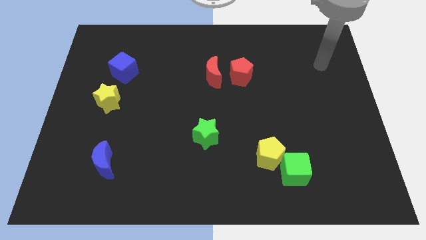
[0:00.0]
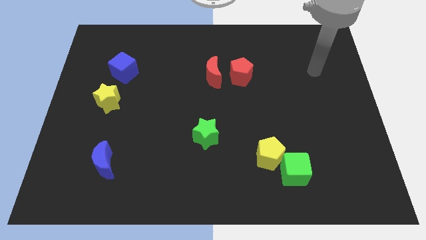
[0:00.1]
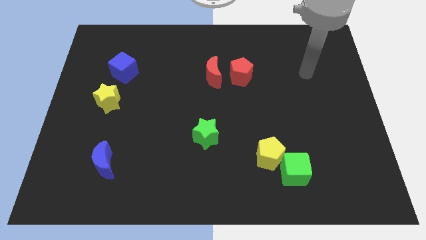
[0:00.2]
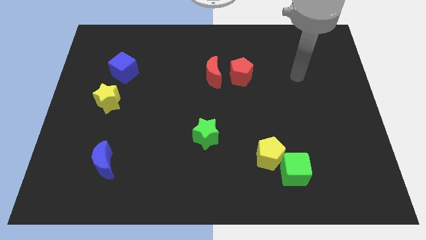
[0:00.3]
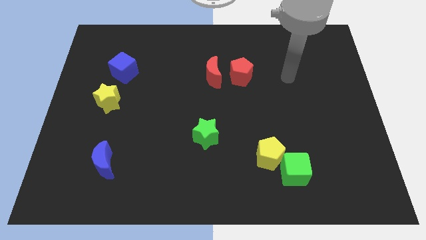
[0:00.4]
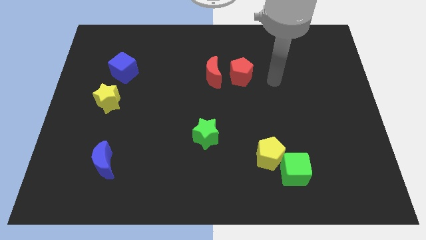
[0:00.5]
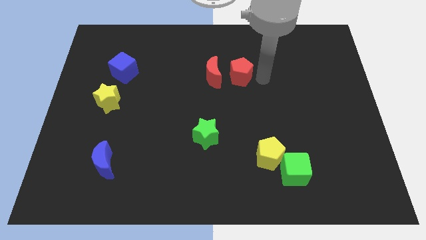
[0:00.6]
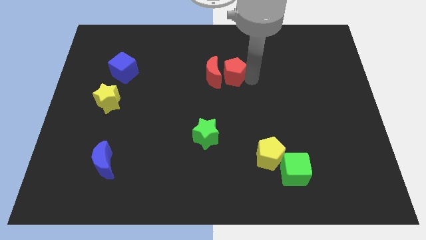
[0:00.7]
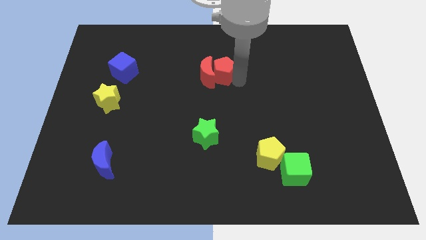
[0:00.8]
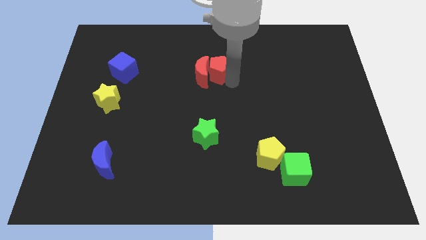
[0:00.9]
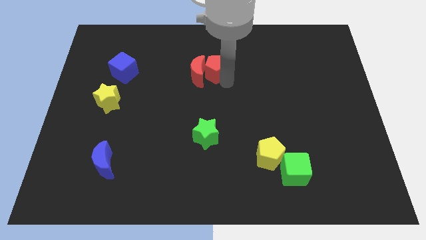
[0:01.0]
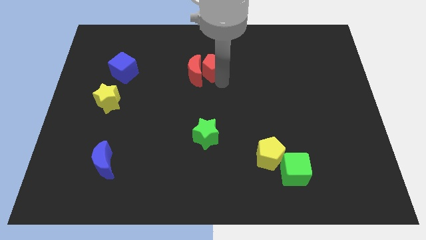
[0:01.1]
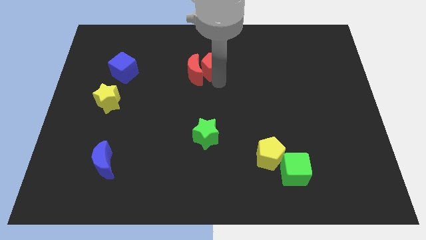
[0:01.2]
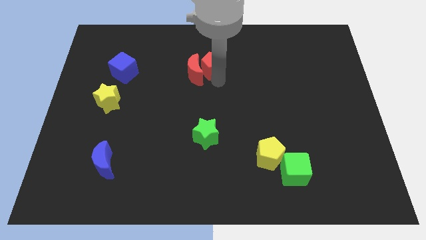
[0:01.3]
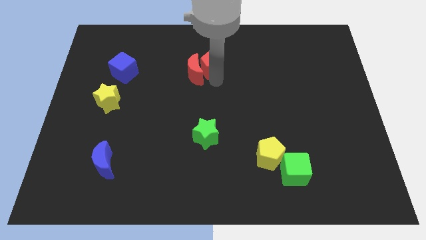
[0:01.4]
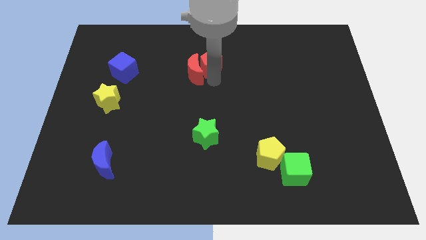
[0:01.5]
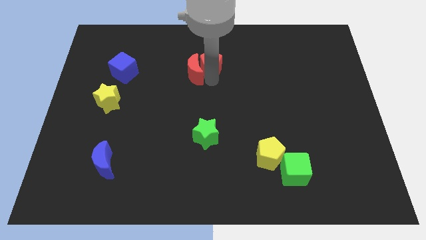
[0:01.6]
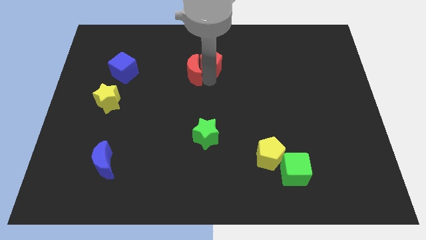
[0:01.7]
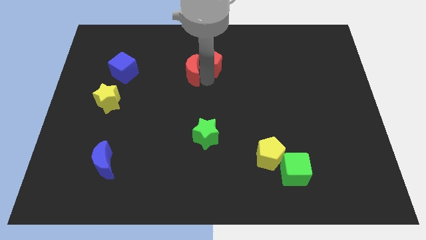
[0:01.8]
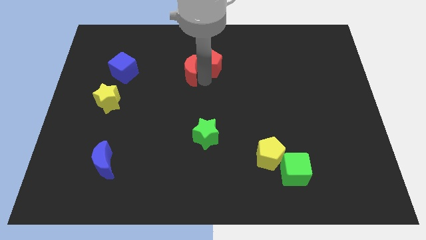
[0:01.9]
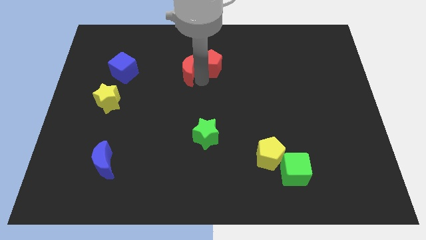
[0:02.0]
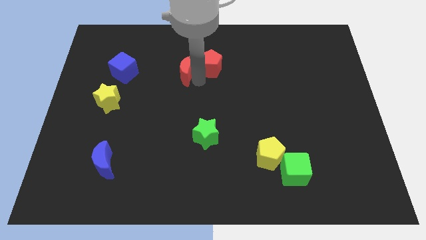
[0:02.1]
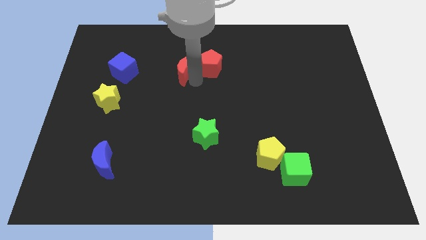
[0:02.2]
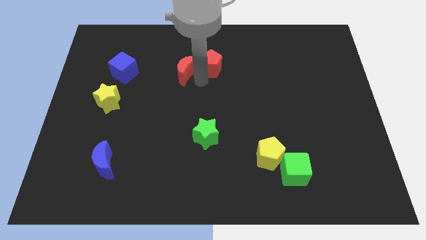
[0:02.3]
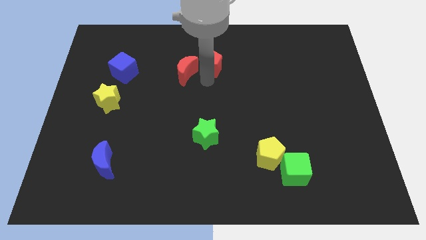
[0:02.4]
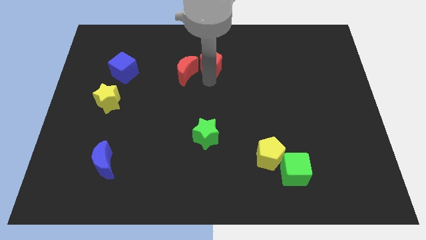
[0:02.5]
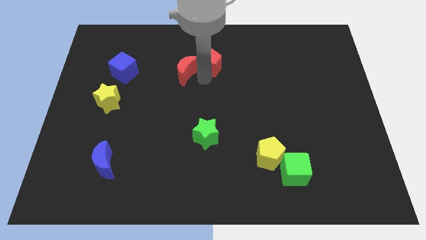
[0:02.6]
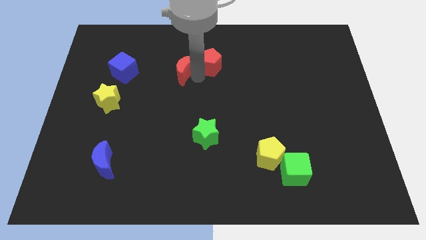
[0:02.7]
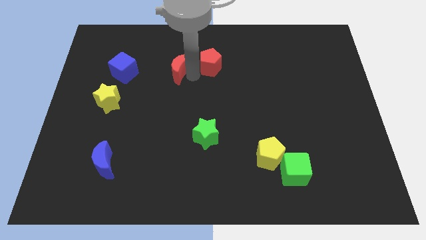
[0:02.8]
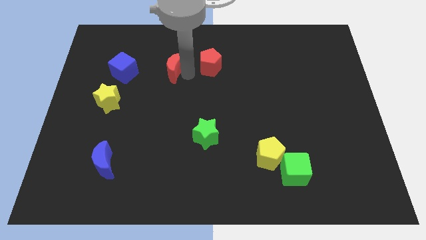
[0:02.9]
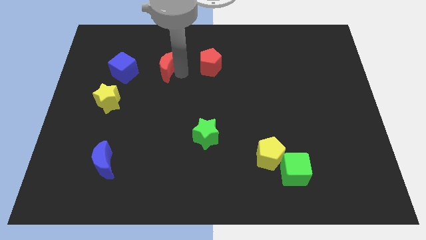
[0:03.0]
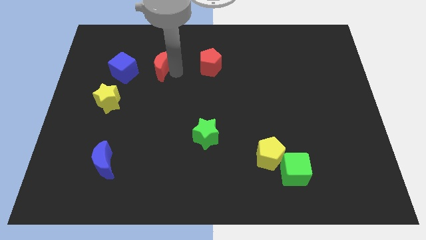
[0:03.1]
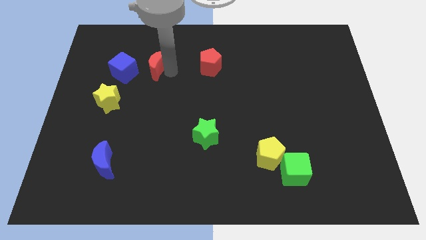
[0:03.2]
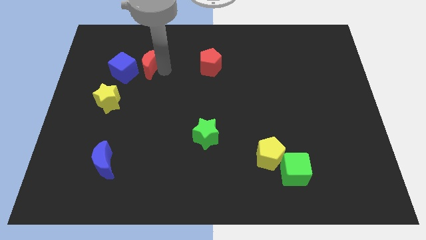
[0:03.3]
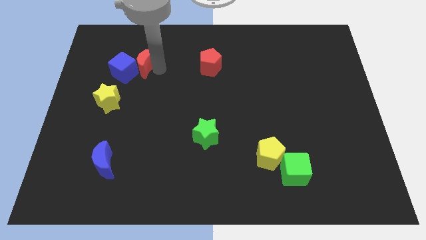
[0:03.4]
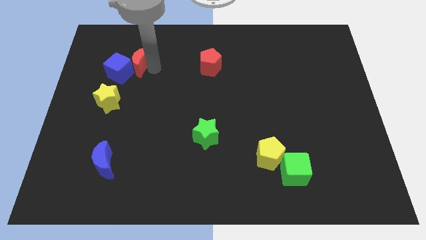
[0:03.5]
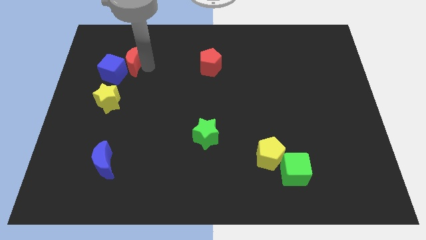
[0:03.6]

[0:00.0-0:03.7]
push the red moon to the top side of the yellow star

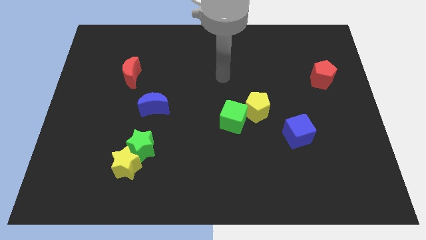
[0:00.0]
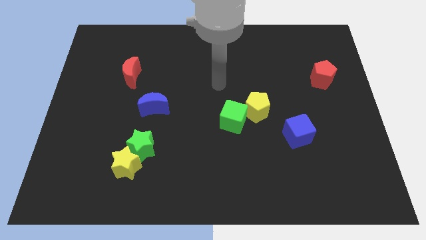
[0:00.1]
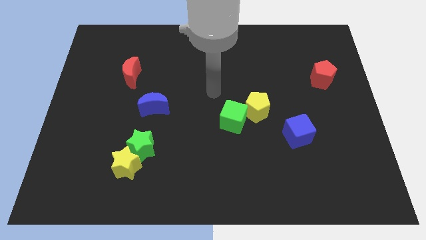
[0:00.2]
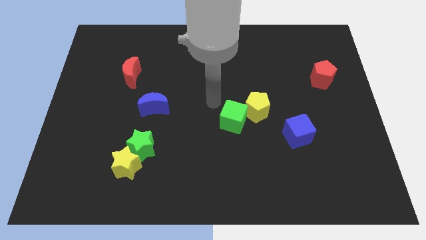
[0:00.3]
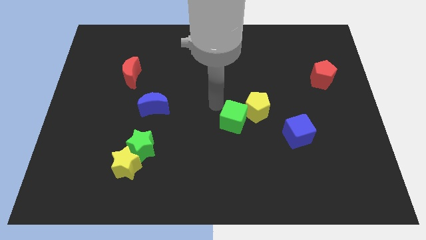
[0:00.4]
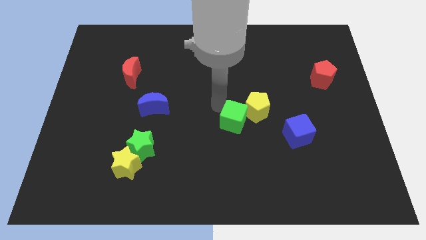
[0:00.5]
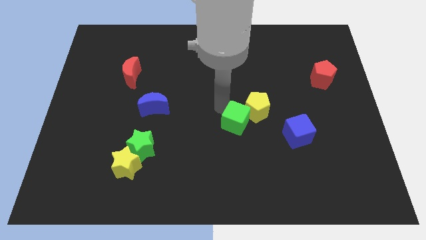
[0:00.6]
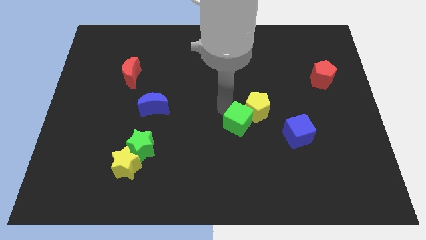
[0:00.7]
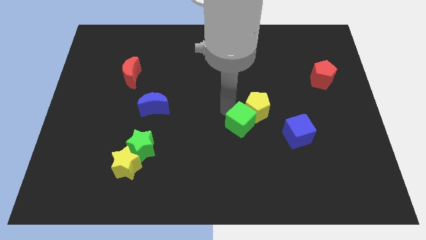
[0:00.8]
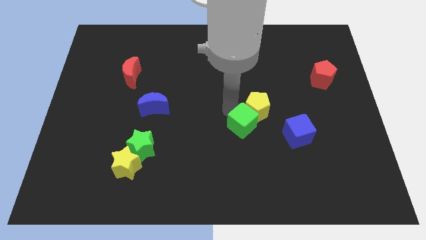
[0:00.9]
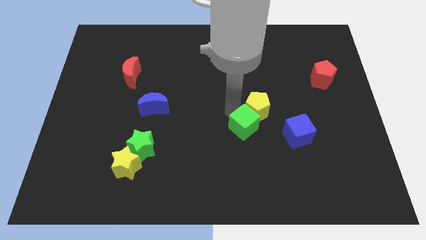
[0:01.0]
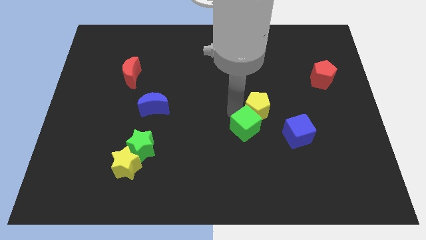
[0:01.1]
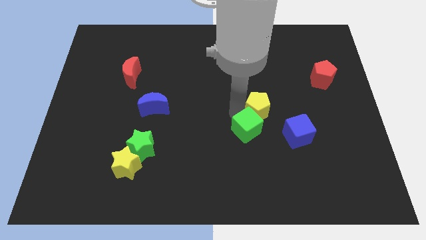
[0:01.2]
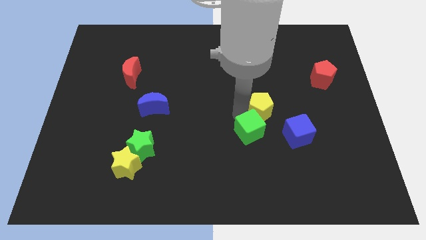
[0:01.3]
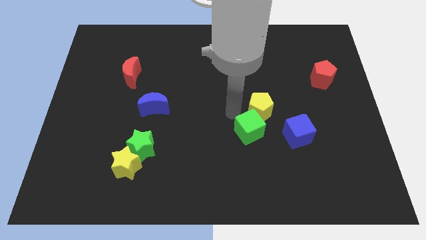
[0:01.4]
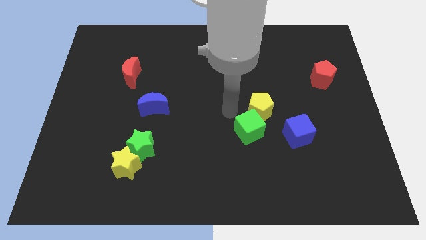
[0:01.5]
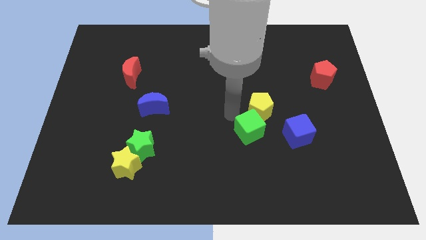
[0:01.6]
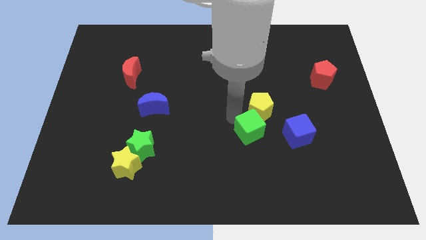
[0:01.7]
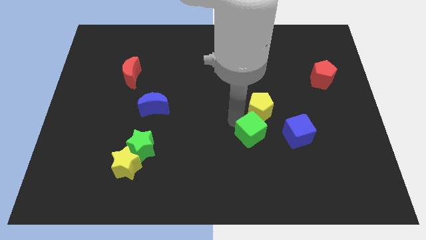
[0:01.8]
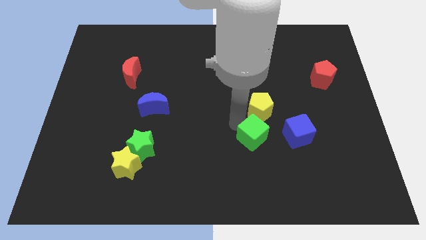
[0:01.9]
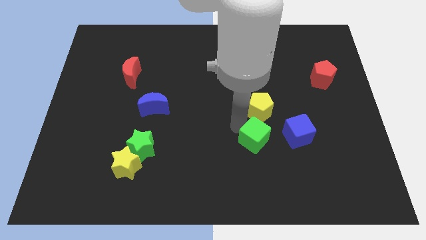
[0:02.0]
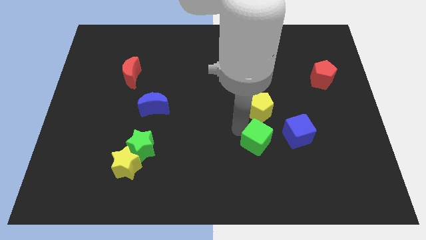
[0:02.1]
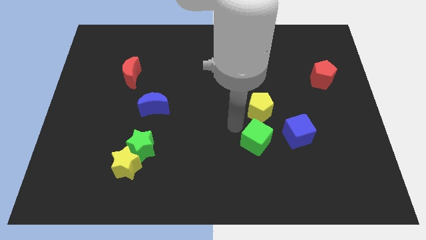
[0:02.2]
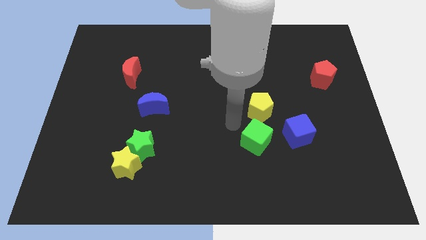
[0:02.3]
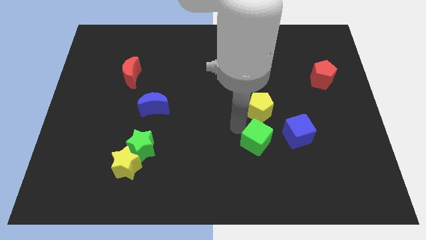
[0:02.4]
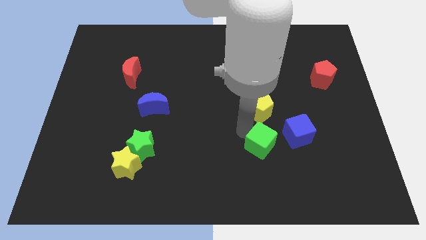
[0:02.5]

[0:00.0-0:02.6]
push the green cube to the bottom left side of the blue cube

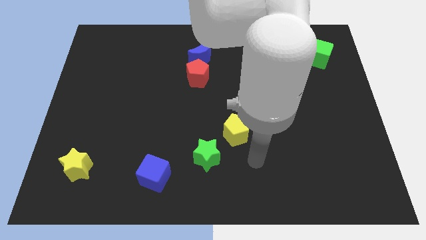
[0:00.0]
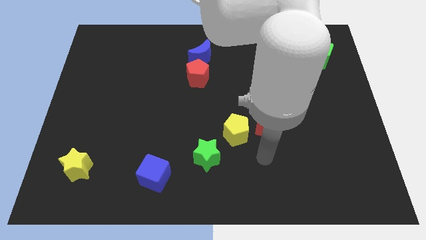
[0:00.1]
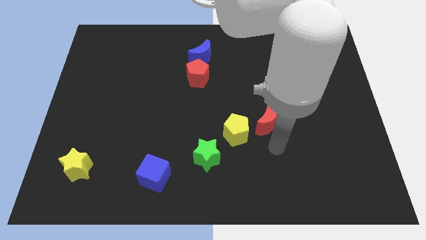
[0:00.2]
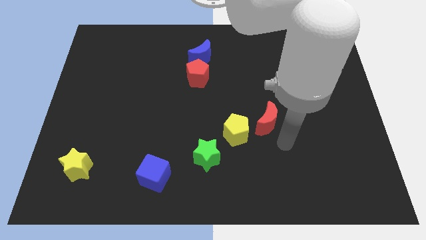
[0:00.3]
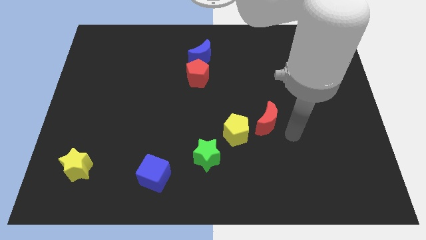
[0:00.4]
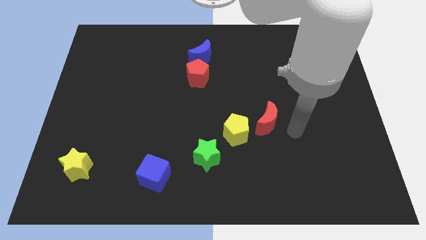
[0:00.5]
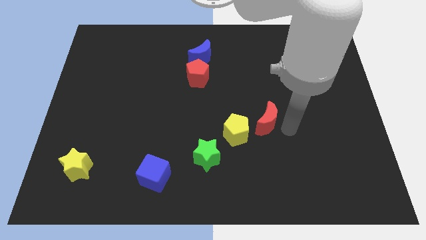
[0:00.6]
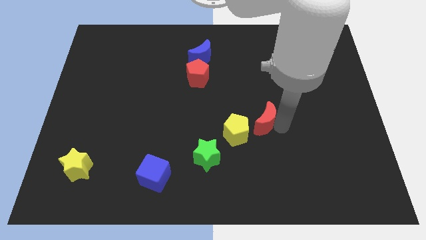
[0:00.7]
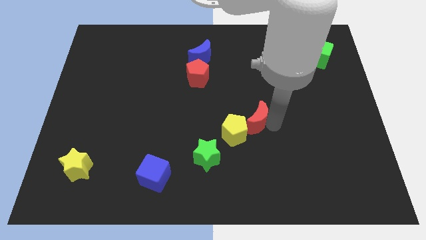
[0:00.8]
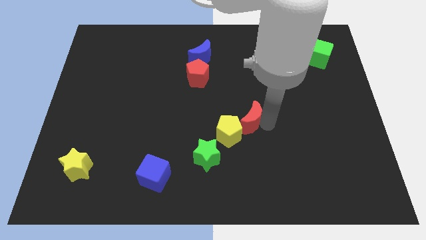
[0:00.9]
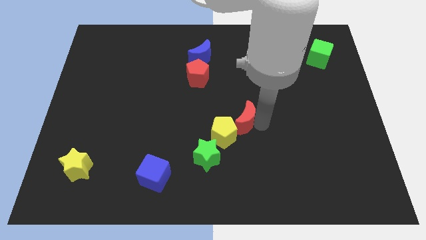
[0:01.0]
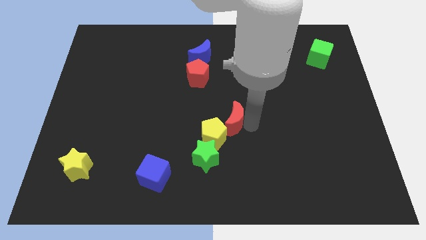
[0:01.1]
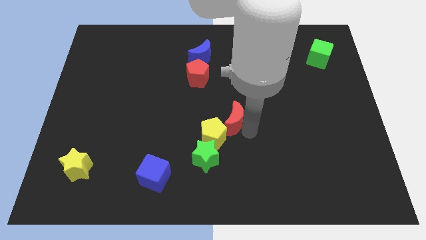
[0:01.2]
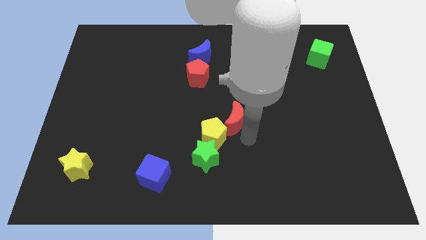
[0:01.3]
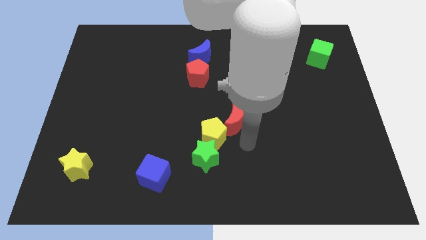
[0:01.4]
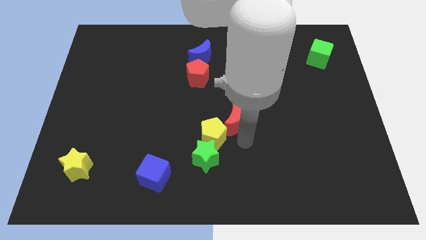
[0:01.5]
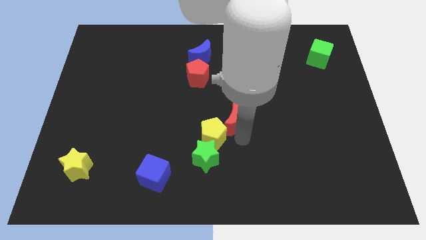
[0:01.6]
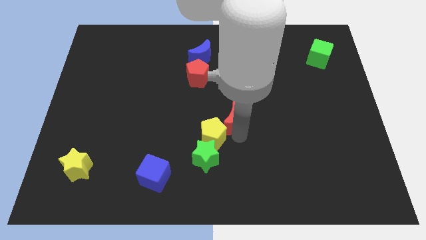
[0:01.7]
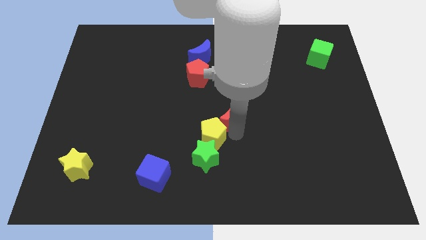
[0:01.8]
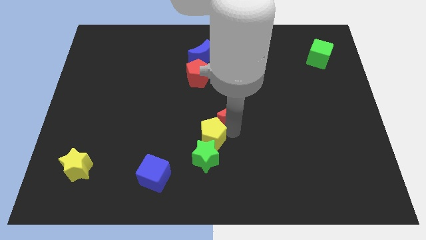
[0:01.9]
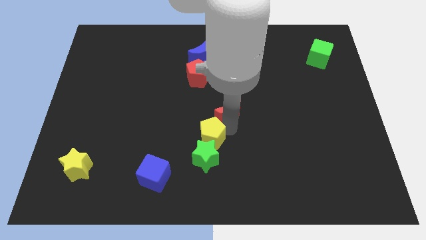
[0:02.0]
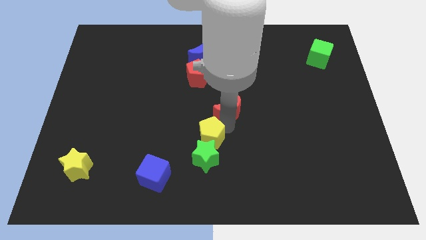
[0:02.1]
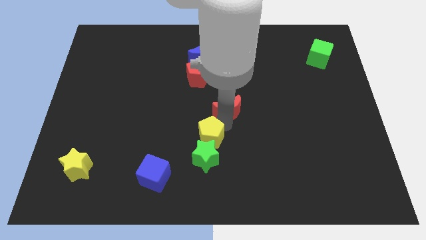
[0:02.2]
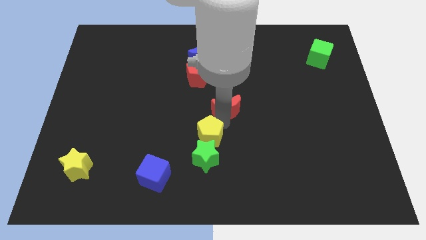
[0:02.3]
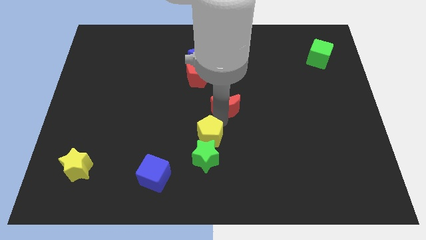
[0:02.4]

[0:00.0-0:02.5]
slide the red moon to the bottom right side of the red pentagon
